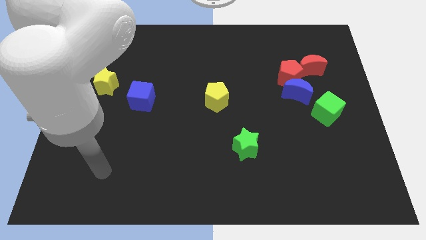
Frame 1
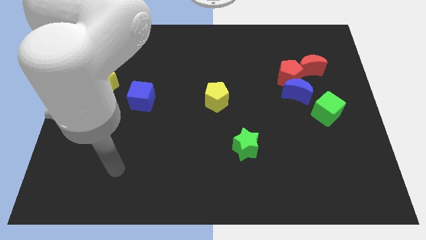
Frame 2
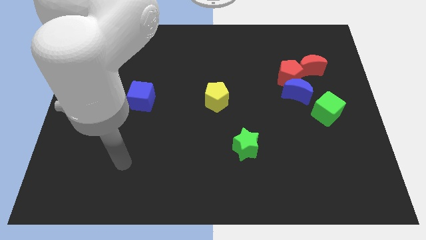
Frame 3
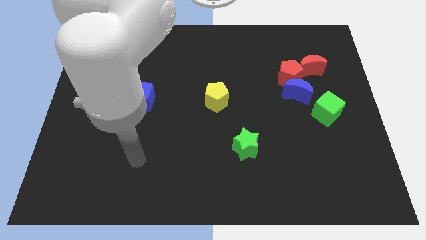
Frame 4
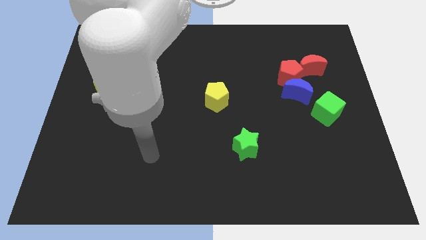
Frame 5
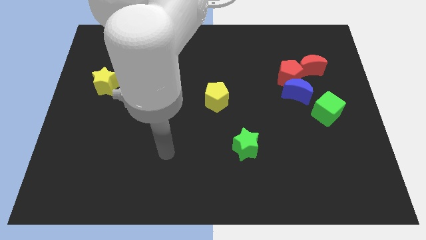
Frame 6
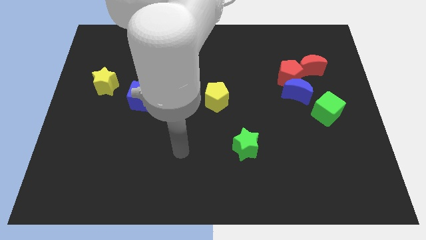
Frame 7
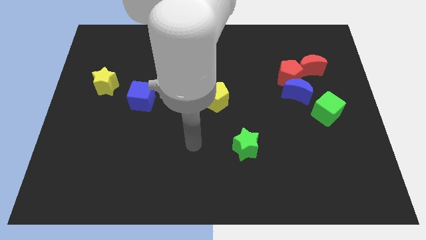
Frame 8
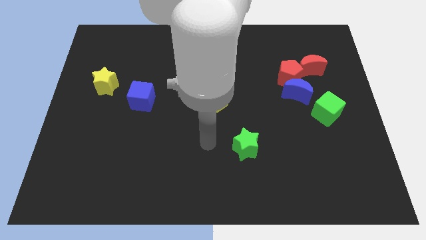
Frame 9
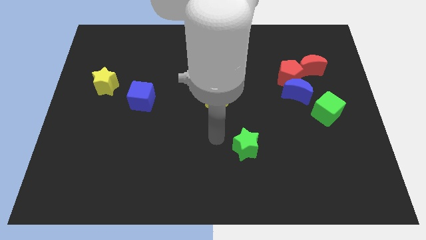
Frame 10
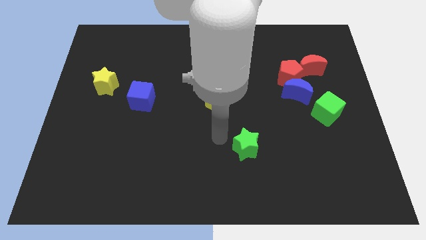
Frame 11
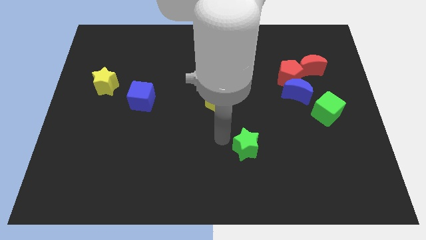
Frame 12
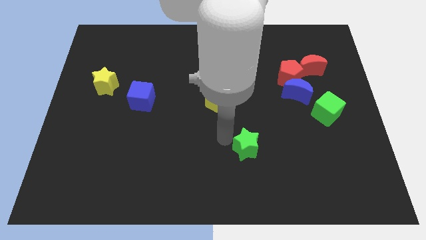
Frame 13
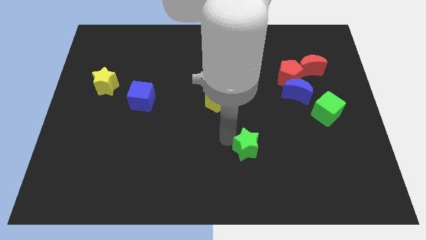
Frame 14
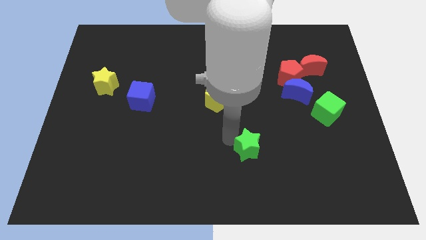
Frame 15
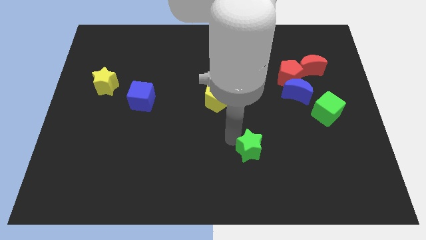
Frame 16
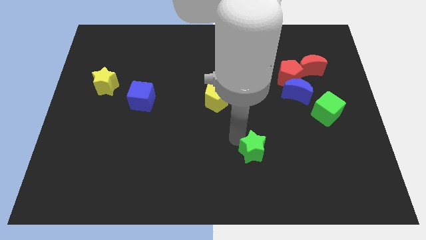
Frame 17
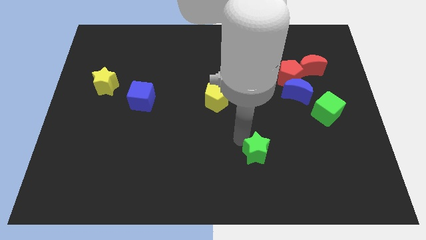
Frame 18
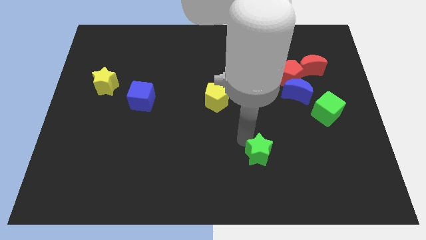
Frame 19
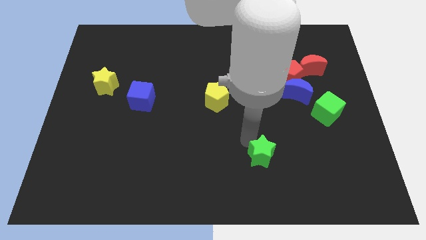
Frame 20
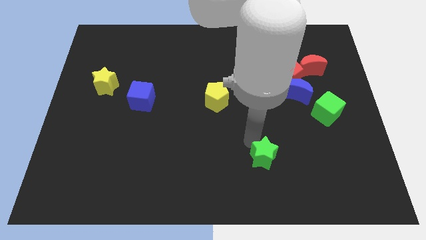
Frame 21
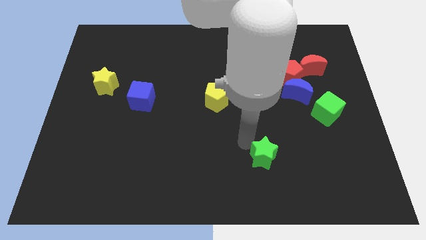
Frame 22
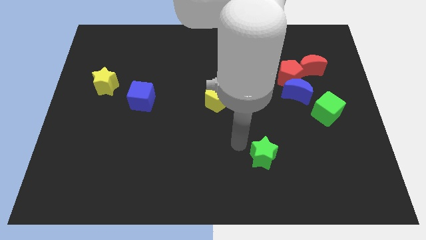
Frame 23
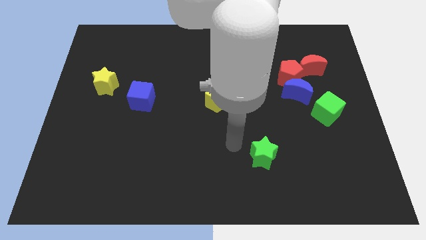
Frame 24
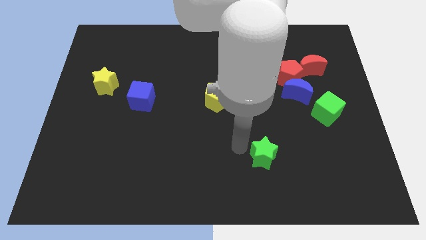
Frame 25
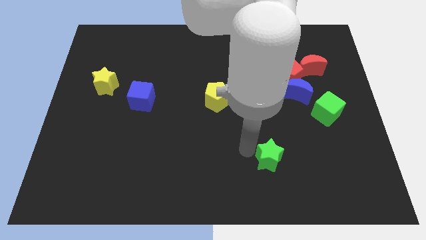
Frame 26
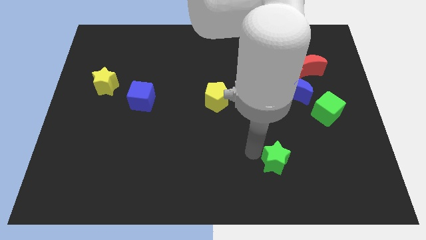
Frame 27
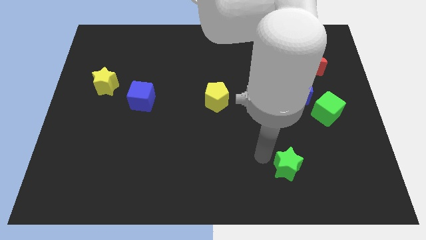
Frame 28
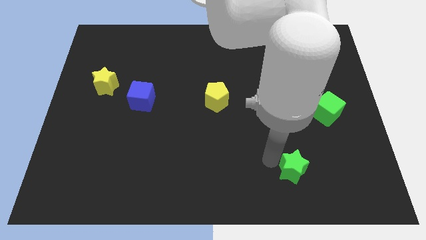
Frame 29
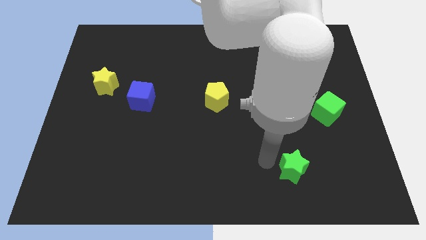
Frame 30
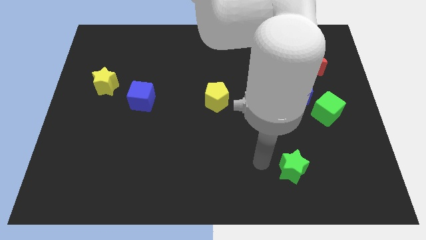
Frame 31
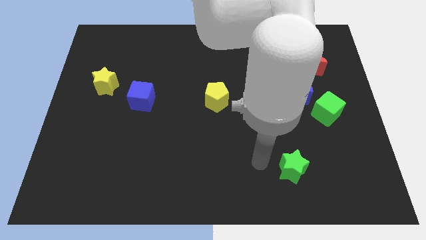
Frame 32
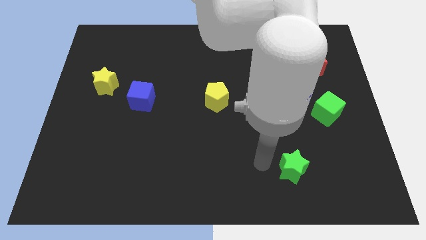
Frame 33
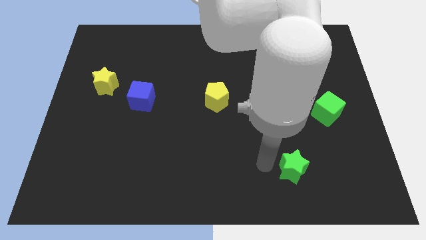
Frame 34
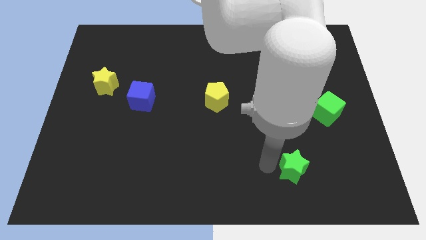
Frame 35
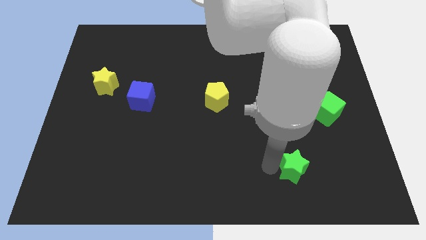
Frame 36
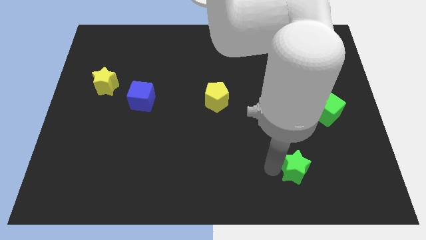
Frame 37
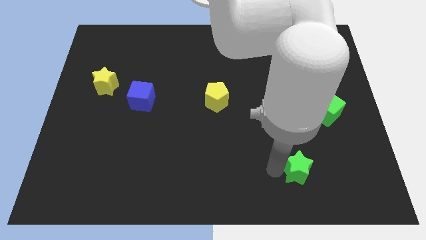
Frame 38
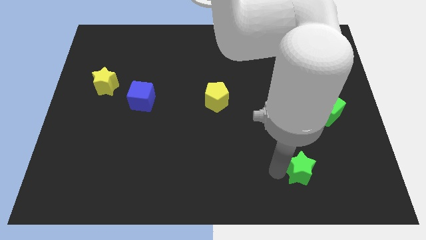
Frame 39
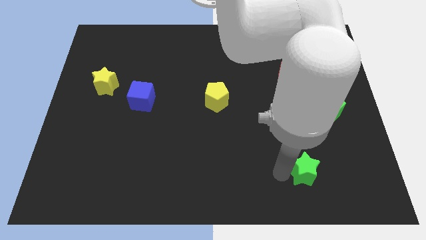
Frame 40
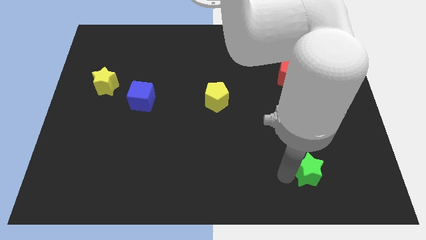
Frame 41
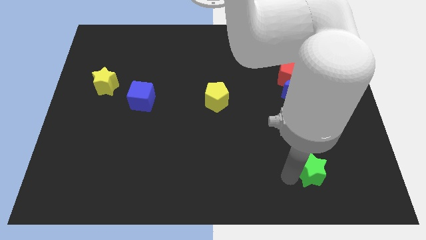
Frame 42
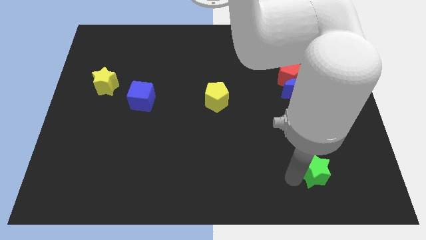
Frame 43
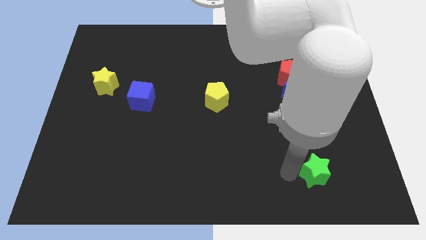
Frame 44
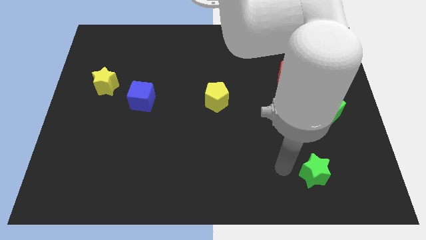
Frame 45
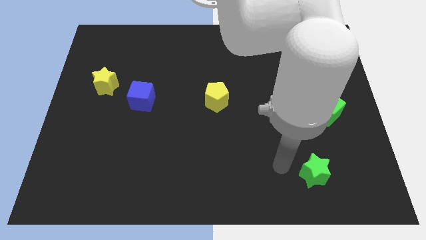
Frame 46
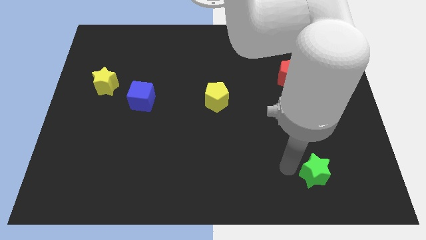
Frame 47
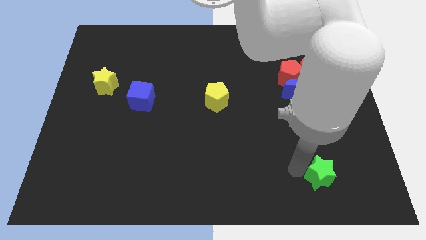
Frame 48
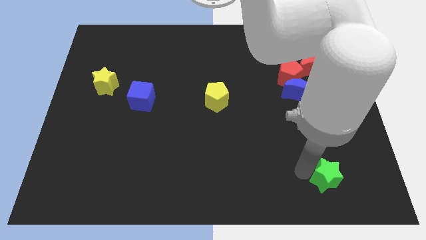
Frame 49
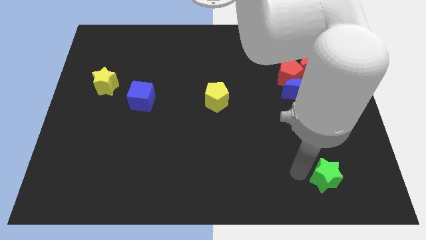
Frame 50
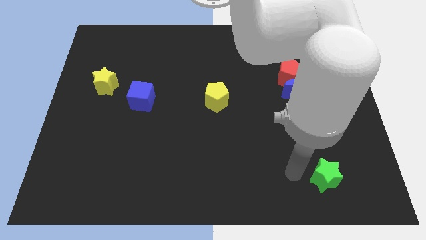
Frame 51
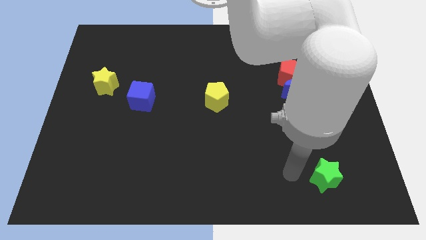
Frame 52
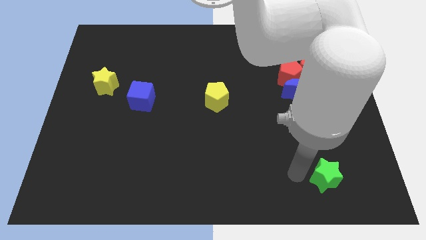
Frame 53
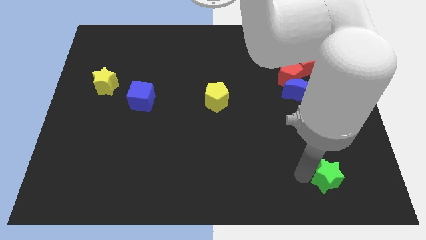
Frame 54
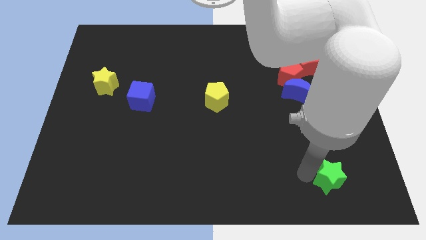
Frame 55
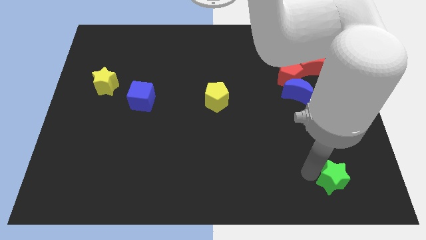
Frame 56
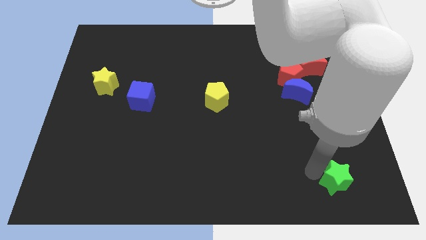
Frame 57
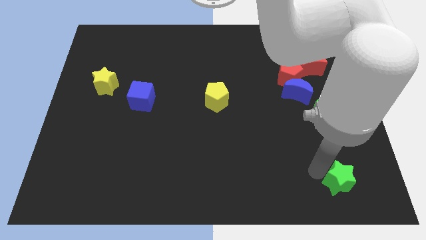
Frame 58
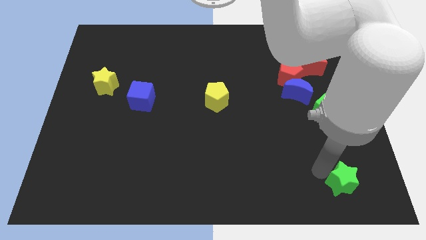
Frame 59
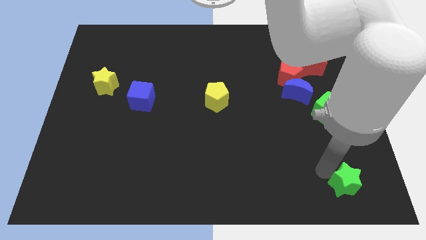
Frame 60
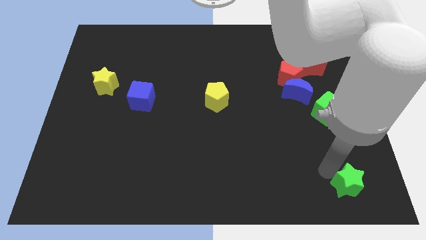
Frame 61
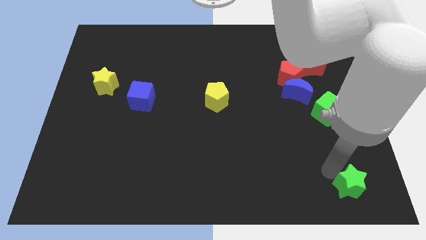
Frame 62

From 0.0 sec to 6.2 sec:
move the green star to the bottom right corner
